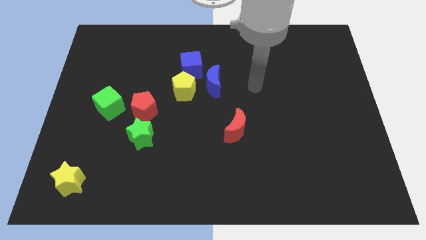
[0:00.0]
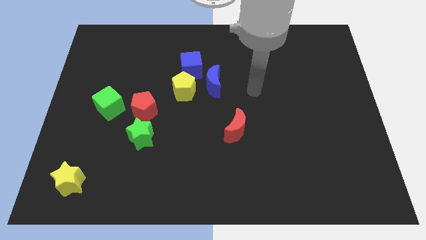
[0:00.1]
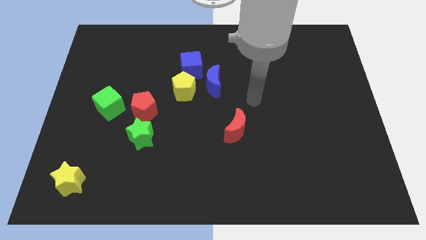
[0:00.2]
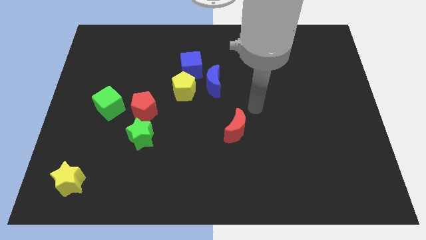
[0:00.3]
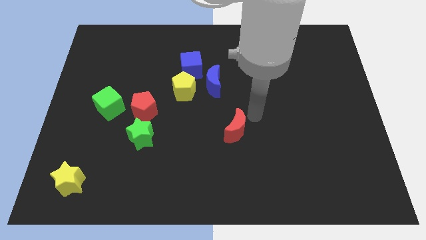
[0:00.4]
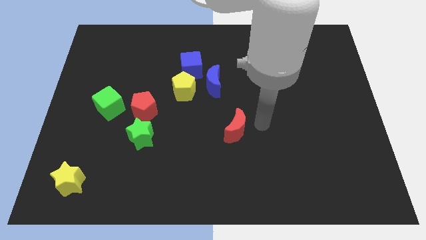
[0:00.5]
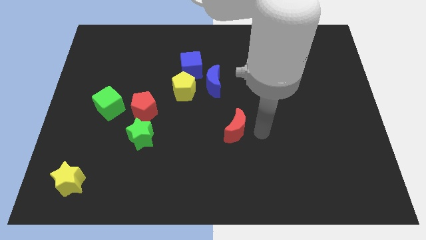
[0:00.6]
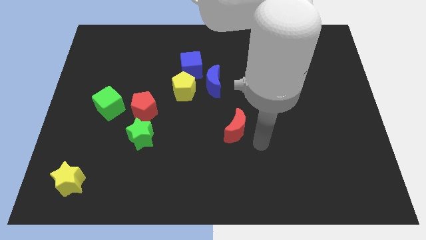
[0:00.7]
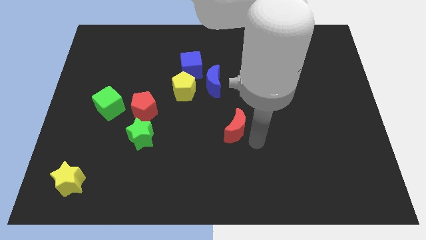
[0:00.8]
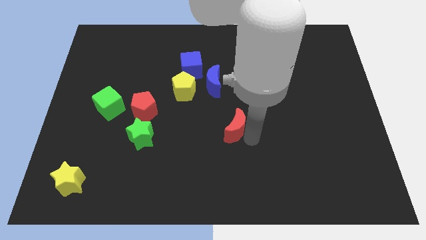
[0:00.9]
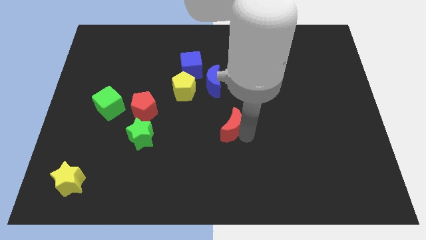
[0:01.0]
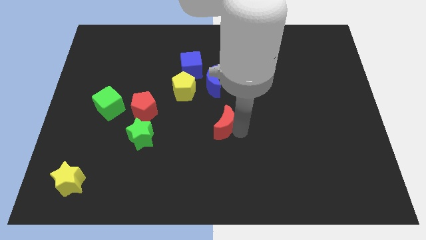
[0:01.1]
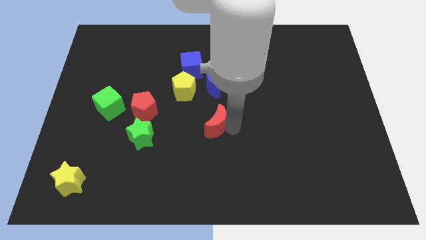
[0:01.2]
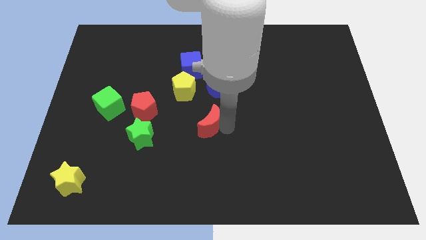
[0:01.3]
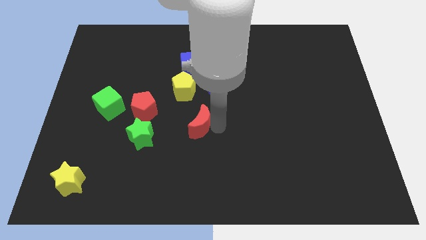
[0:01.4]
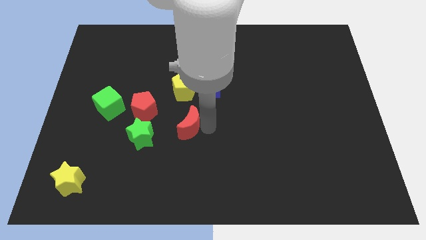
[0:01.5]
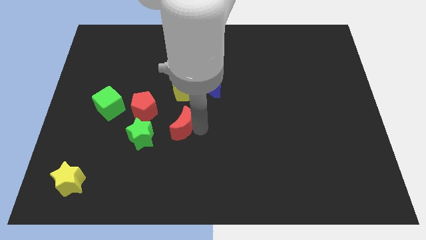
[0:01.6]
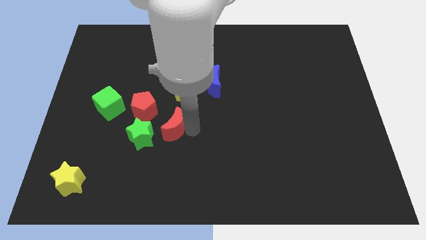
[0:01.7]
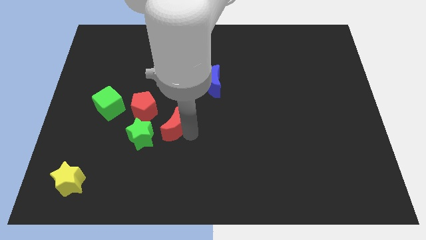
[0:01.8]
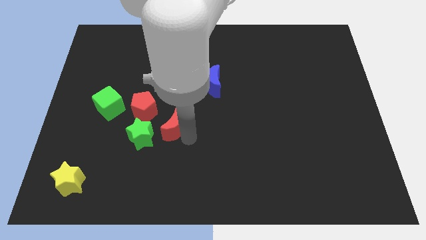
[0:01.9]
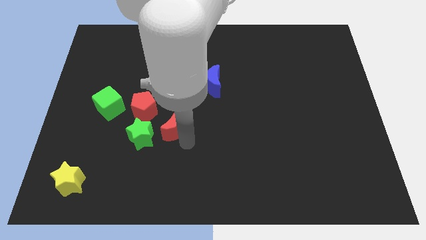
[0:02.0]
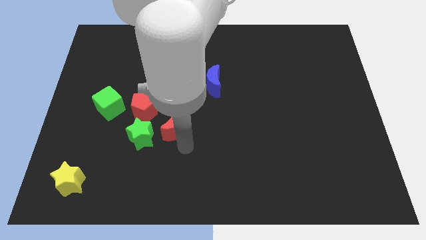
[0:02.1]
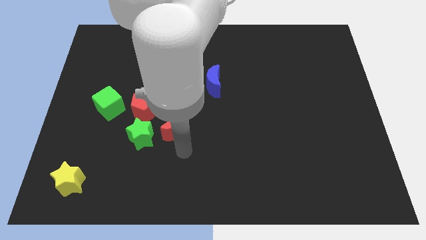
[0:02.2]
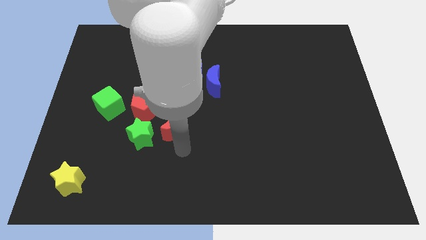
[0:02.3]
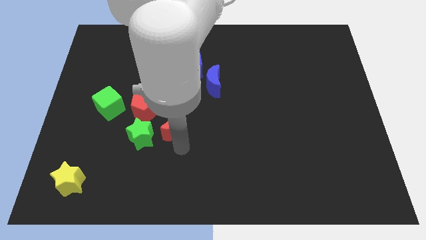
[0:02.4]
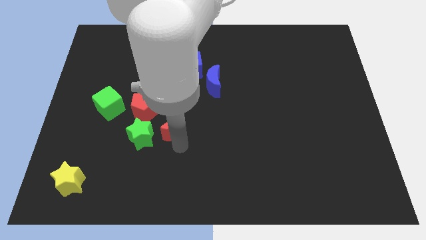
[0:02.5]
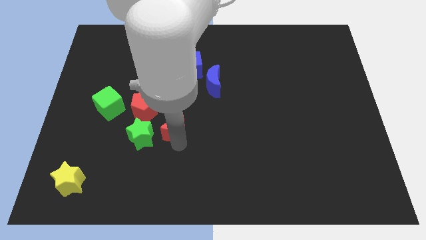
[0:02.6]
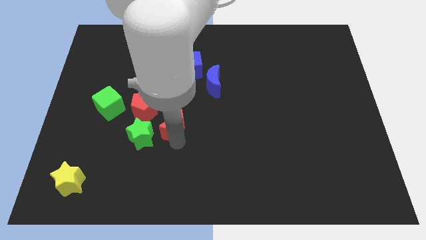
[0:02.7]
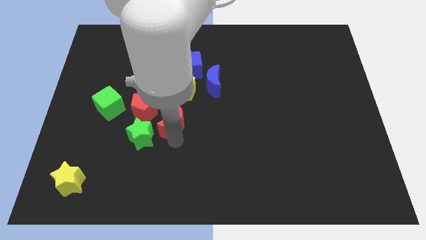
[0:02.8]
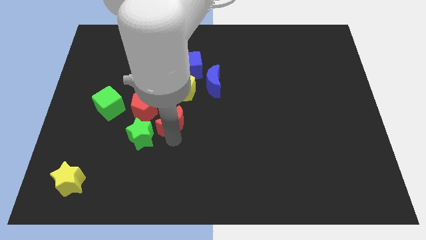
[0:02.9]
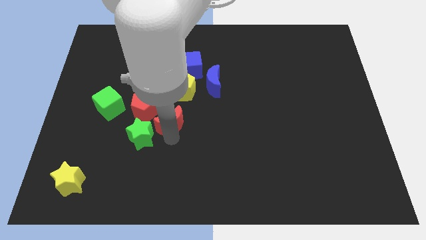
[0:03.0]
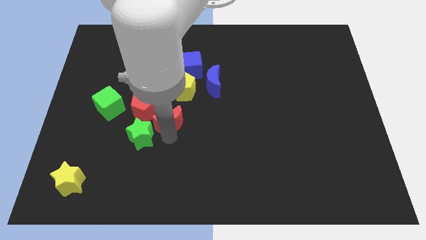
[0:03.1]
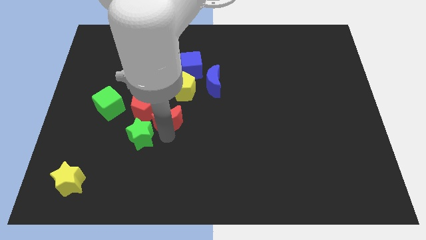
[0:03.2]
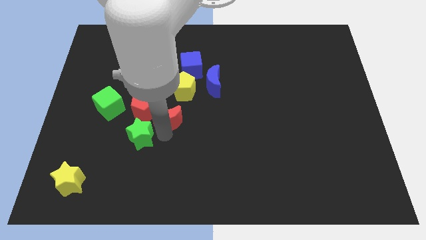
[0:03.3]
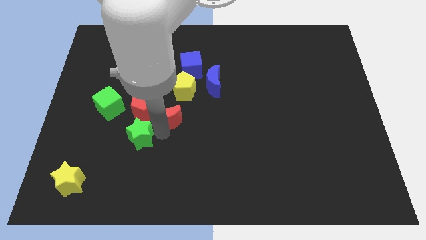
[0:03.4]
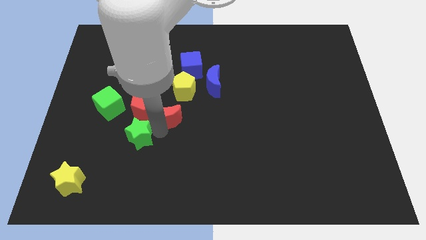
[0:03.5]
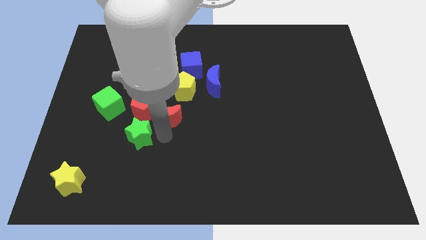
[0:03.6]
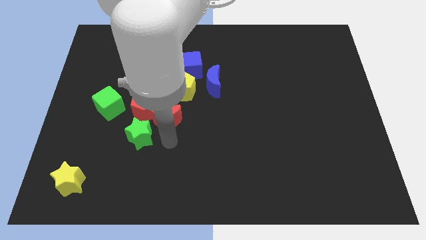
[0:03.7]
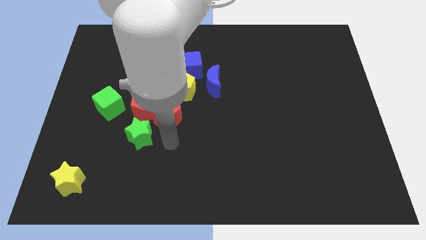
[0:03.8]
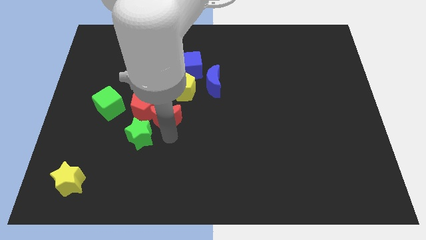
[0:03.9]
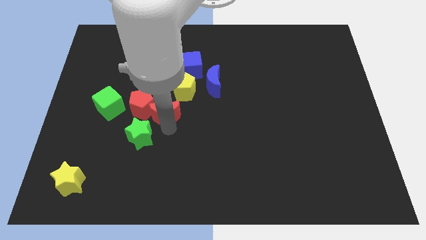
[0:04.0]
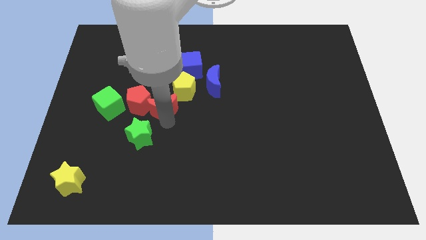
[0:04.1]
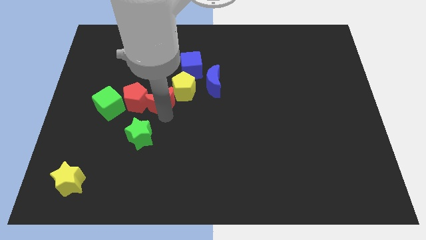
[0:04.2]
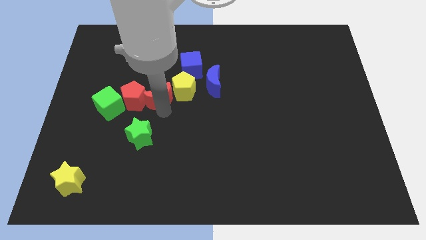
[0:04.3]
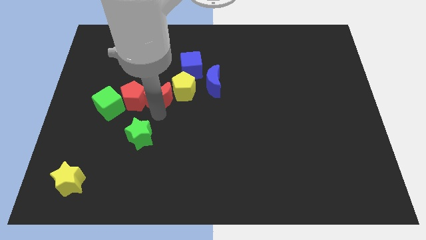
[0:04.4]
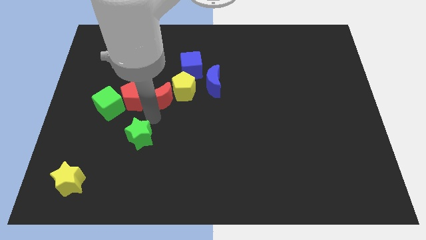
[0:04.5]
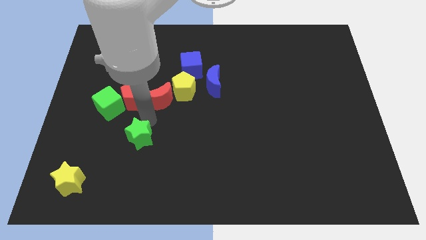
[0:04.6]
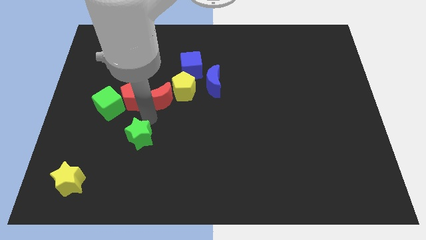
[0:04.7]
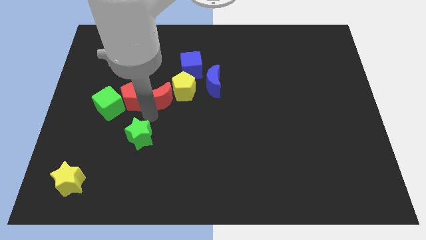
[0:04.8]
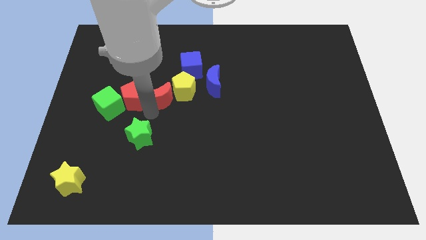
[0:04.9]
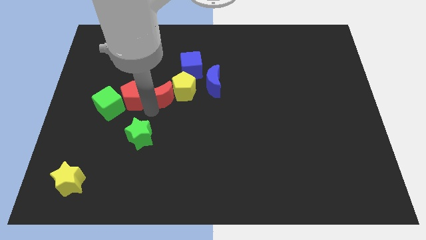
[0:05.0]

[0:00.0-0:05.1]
put the red moon to the left side of the blue moon

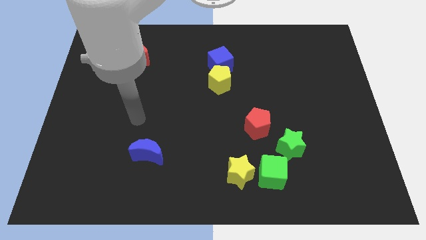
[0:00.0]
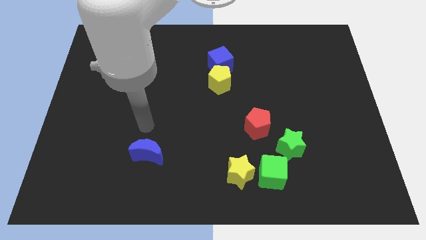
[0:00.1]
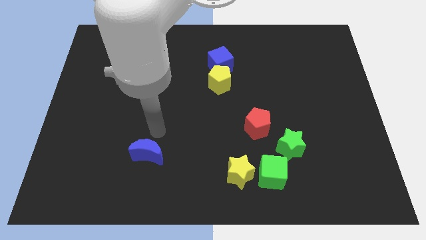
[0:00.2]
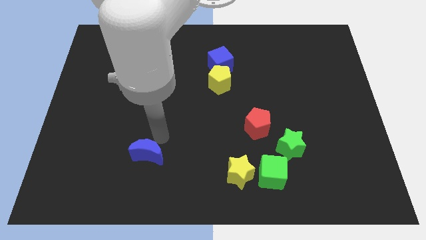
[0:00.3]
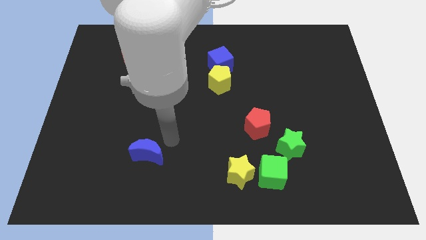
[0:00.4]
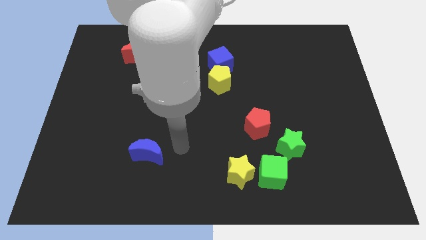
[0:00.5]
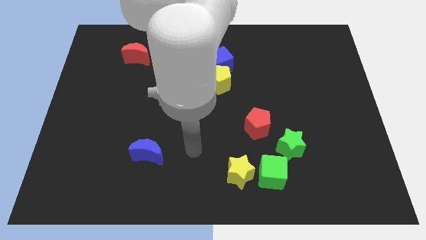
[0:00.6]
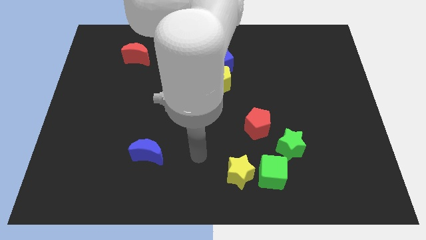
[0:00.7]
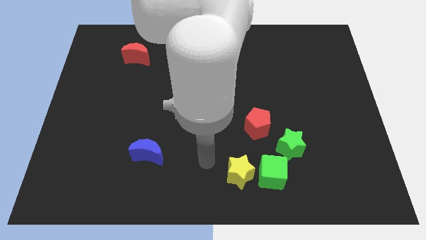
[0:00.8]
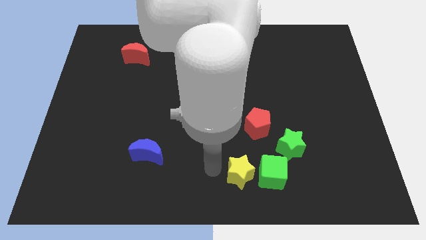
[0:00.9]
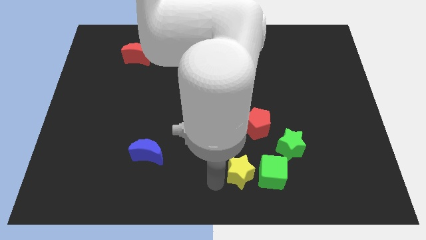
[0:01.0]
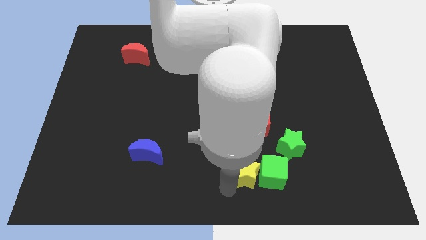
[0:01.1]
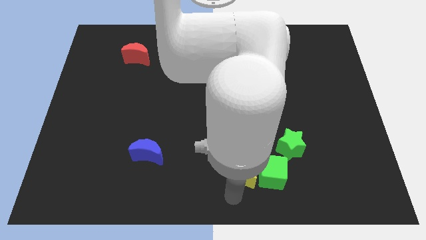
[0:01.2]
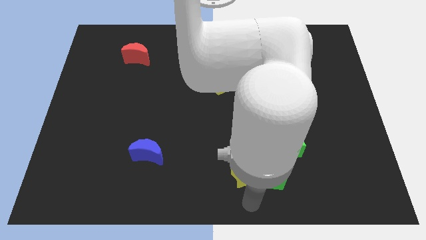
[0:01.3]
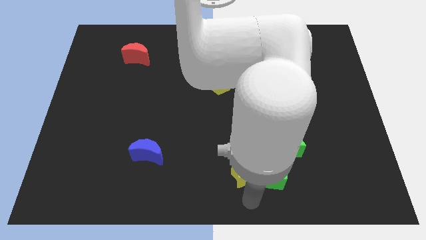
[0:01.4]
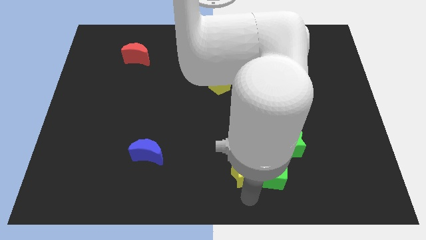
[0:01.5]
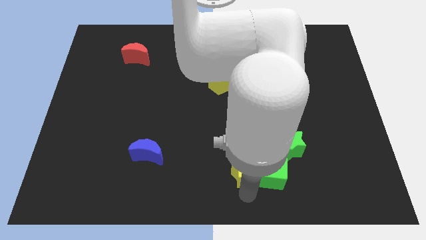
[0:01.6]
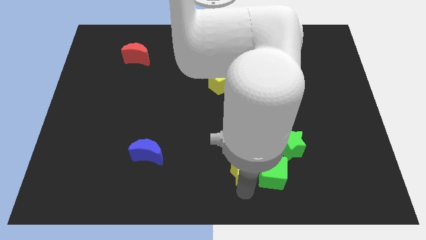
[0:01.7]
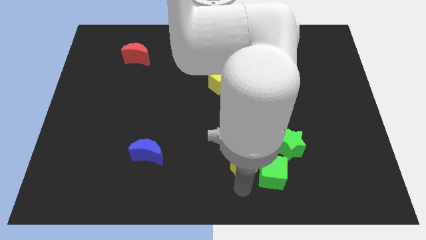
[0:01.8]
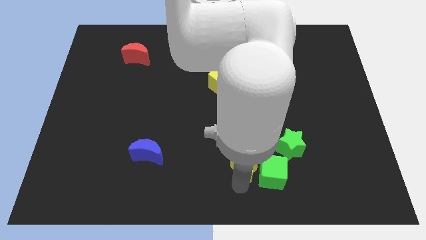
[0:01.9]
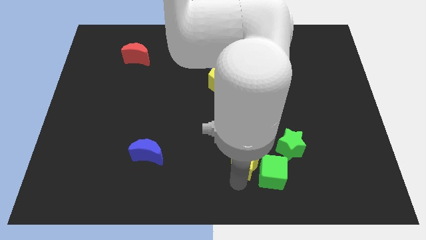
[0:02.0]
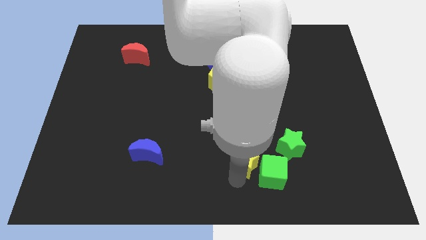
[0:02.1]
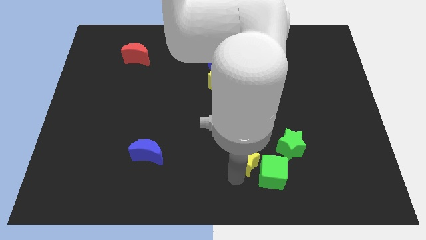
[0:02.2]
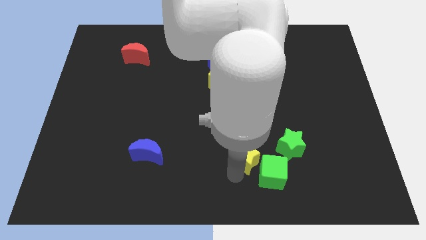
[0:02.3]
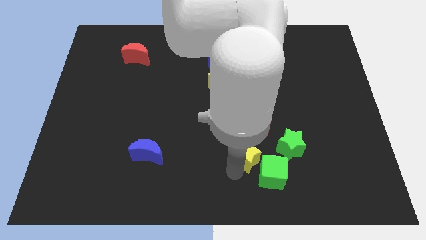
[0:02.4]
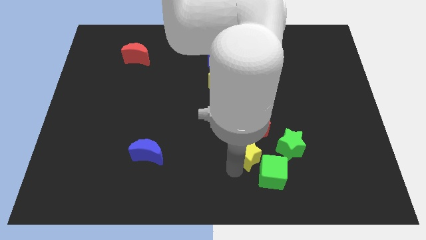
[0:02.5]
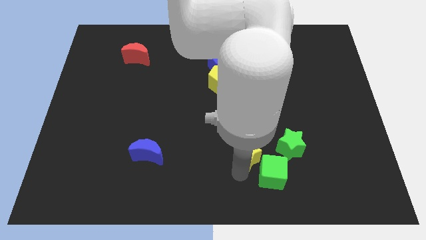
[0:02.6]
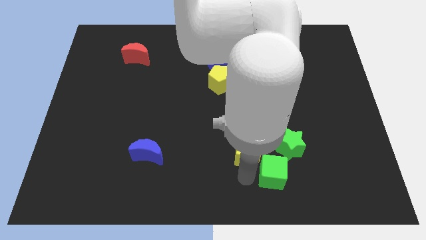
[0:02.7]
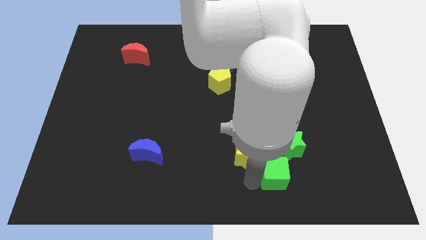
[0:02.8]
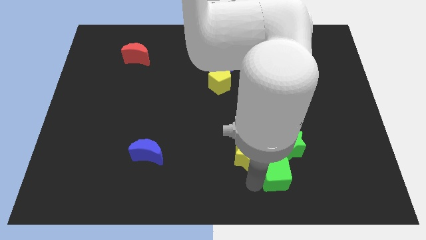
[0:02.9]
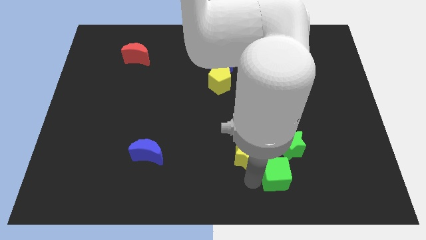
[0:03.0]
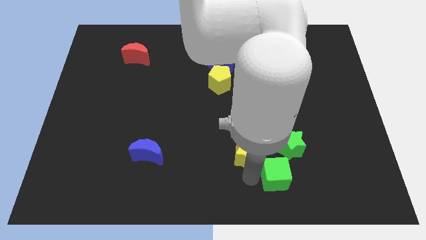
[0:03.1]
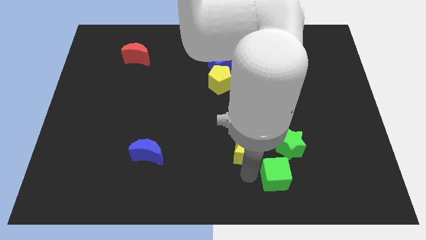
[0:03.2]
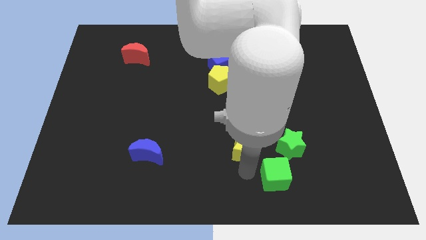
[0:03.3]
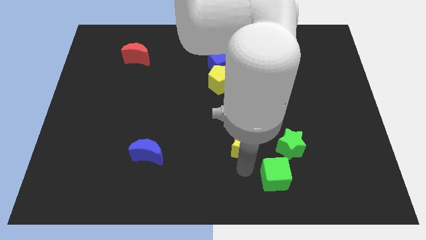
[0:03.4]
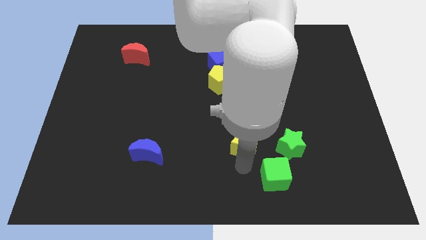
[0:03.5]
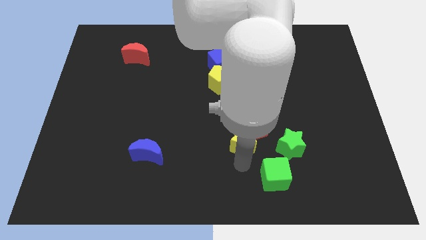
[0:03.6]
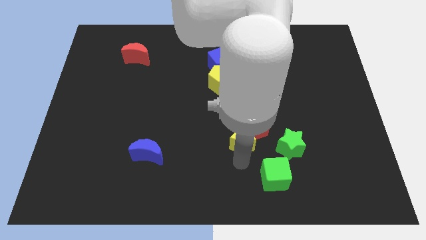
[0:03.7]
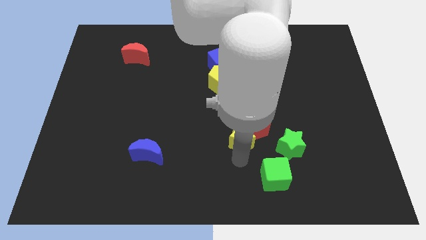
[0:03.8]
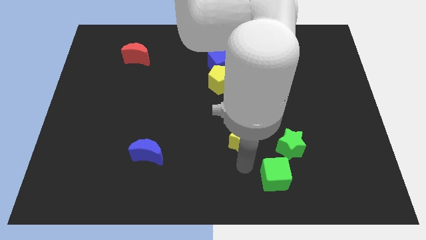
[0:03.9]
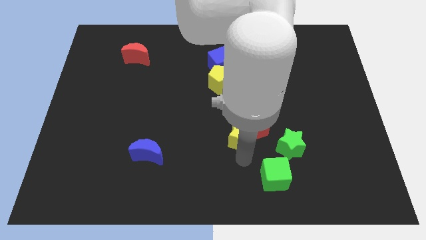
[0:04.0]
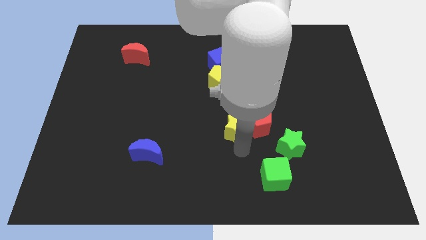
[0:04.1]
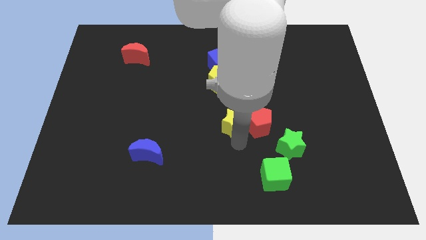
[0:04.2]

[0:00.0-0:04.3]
slide the yellow star diagonally up and to the left of the red pentagon
